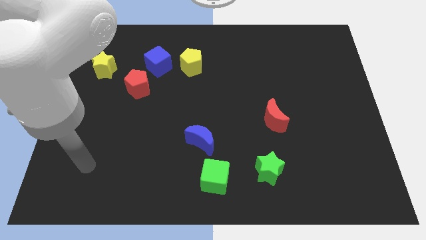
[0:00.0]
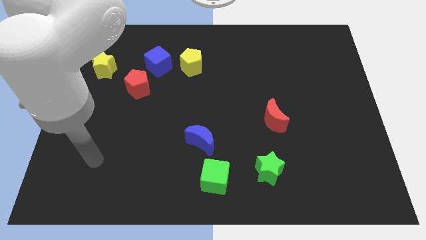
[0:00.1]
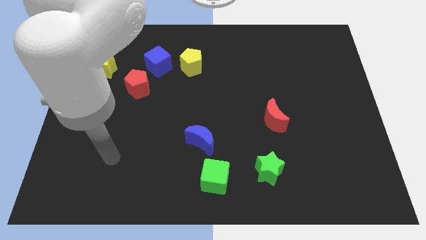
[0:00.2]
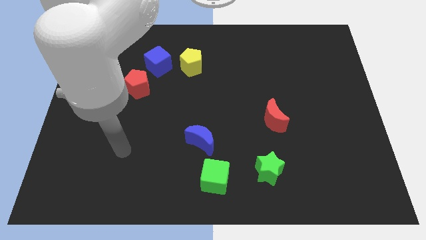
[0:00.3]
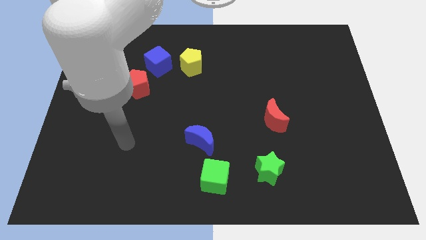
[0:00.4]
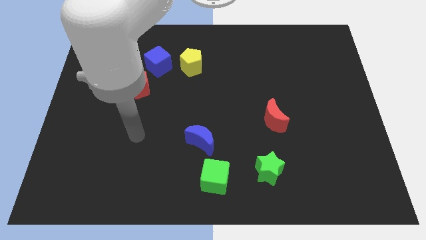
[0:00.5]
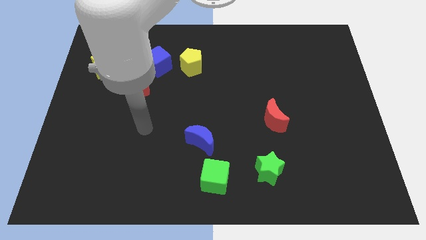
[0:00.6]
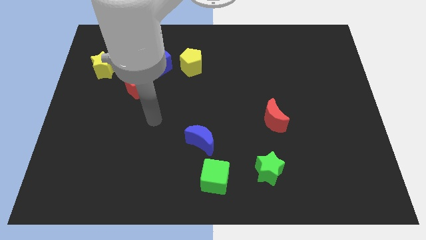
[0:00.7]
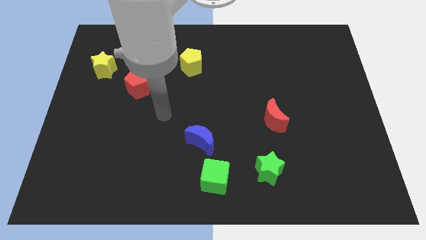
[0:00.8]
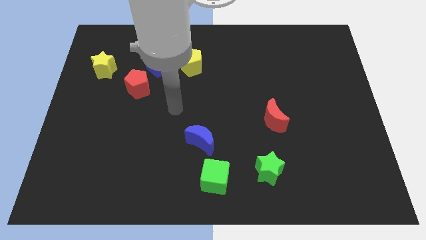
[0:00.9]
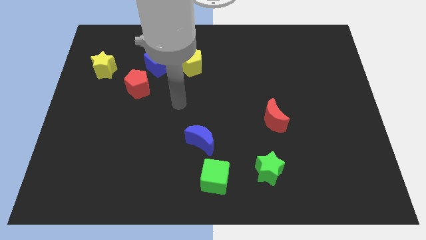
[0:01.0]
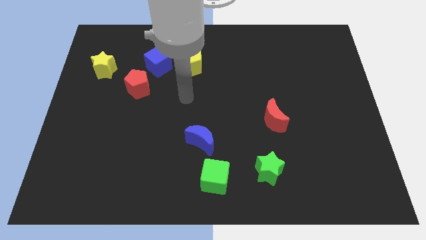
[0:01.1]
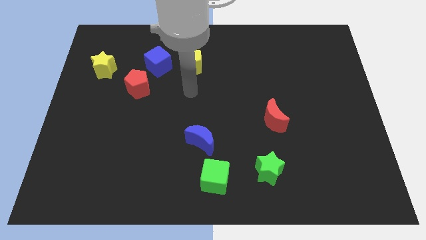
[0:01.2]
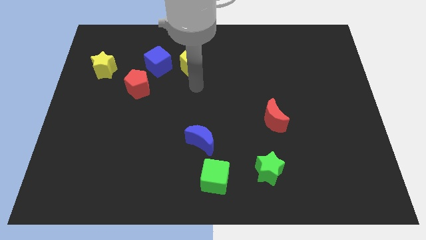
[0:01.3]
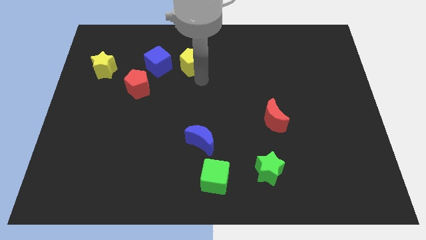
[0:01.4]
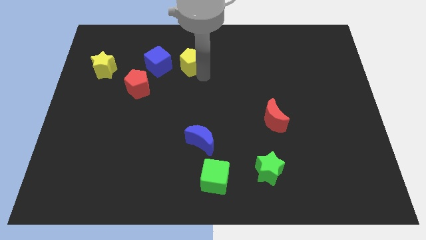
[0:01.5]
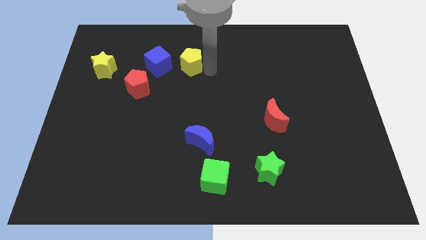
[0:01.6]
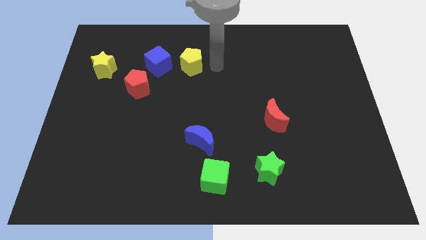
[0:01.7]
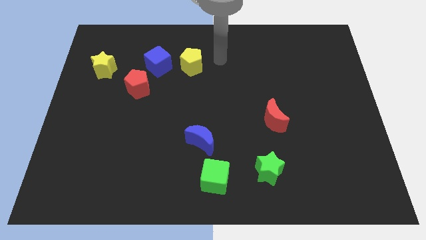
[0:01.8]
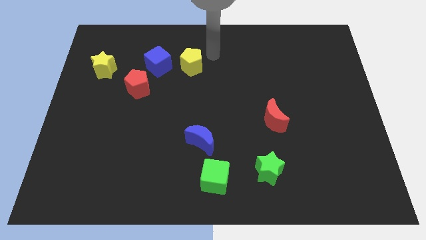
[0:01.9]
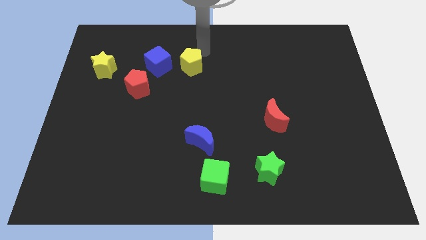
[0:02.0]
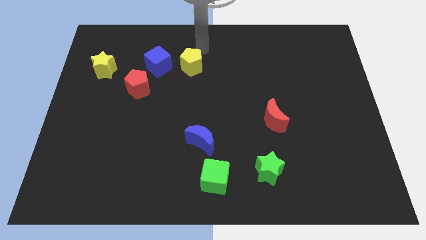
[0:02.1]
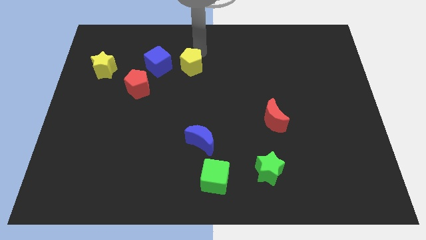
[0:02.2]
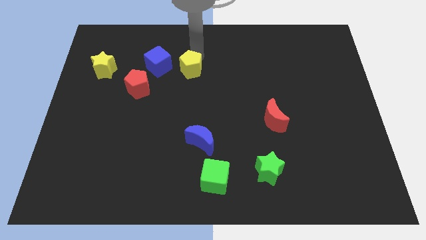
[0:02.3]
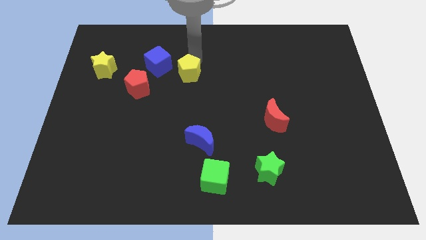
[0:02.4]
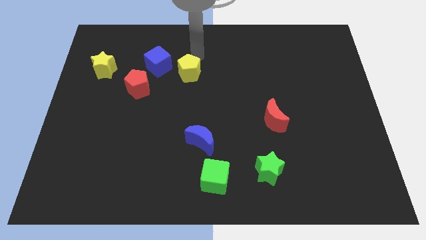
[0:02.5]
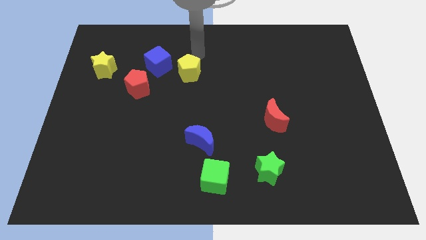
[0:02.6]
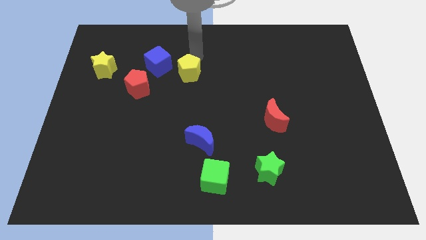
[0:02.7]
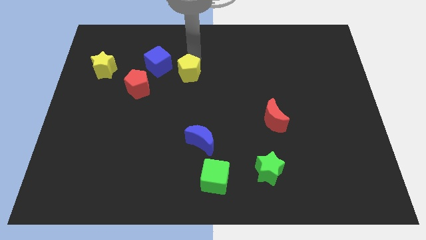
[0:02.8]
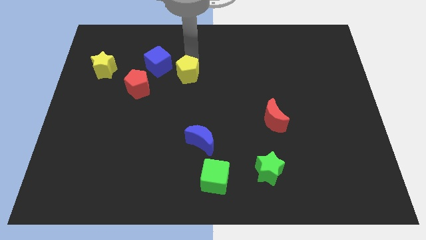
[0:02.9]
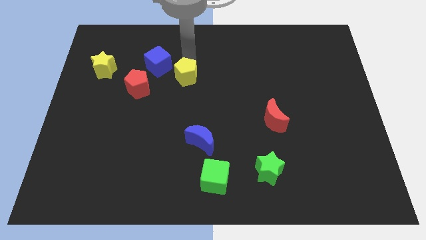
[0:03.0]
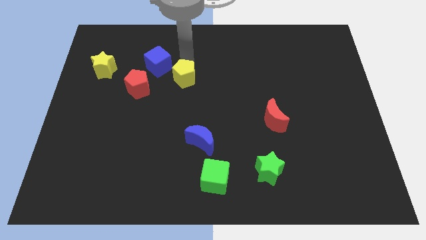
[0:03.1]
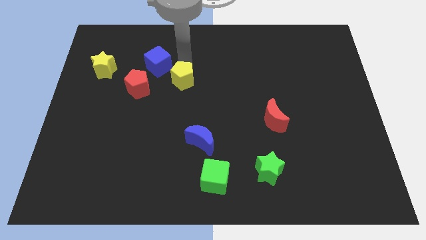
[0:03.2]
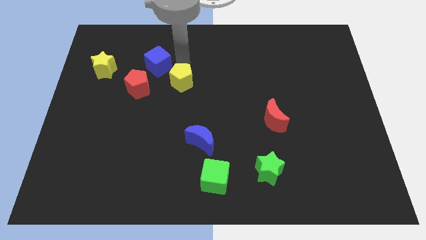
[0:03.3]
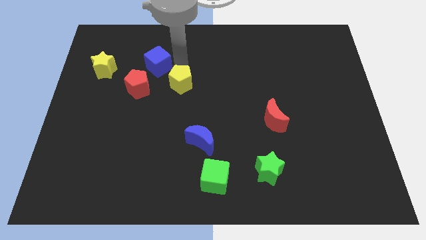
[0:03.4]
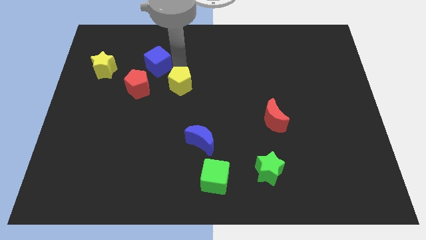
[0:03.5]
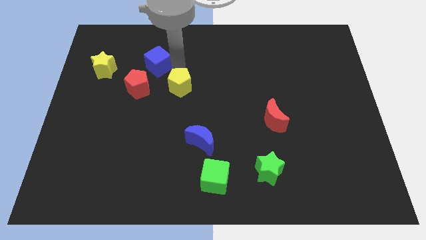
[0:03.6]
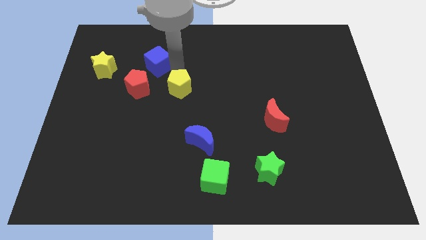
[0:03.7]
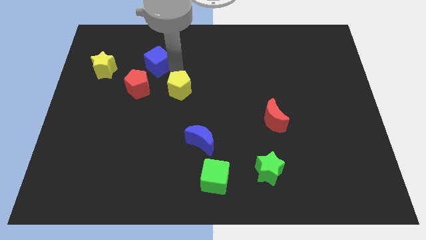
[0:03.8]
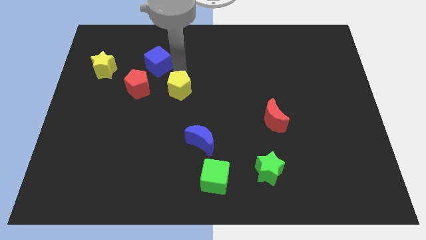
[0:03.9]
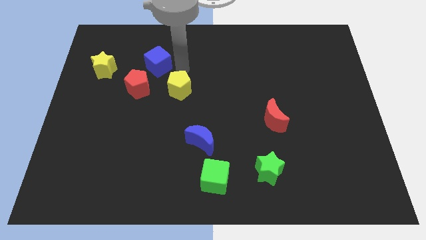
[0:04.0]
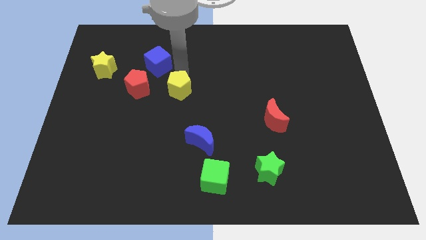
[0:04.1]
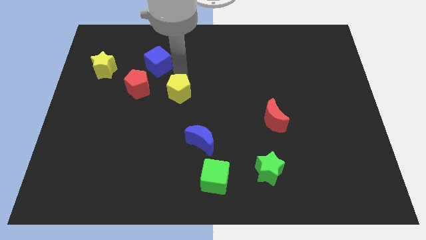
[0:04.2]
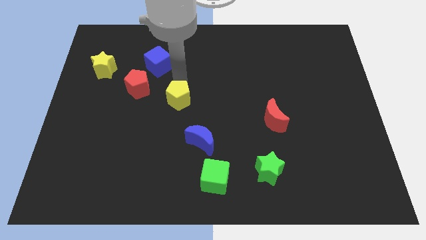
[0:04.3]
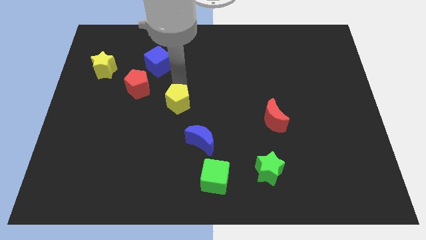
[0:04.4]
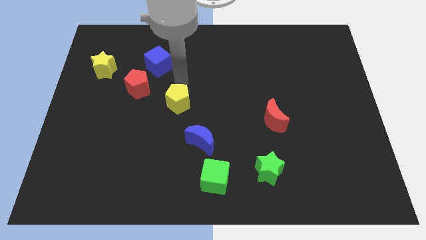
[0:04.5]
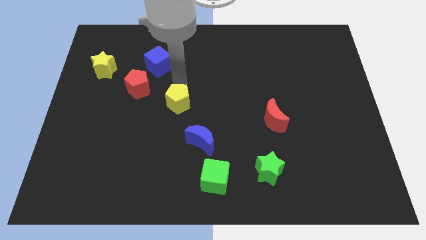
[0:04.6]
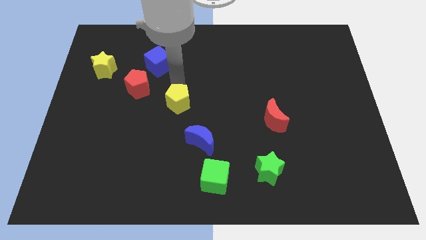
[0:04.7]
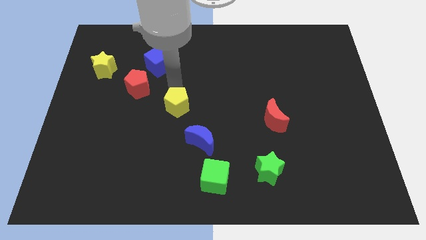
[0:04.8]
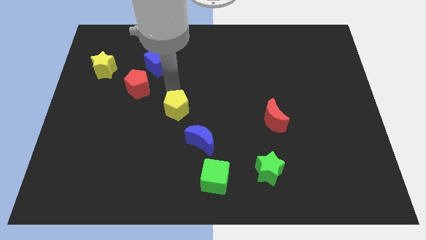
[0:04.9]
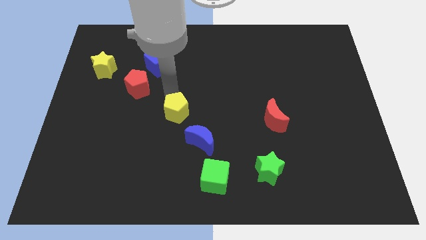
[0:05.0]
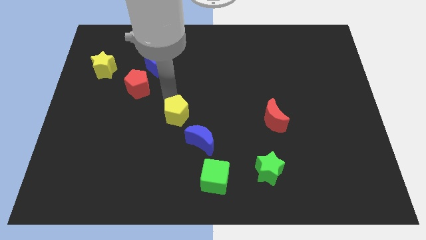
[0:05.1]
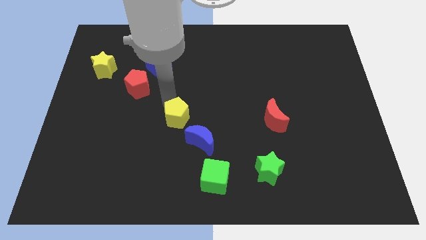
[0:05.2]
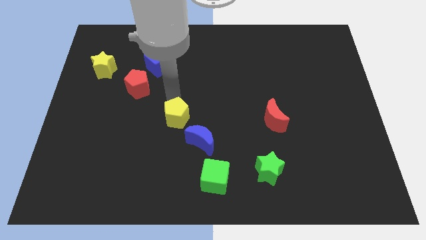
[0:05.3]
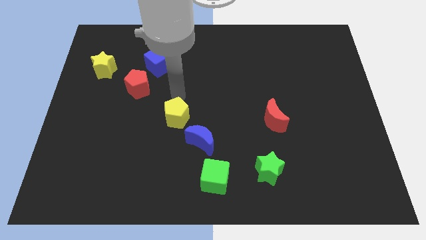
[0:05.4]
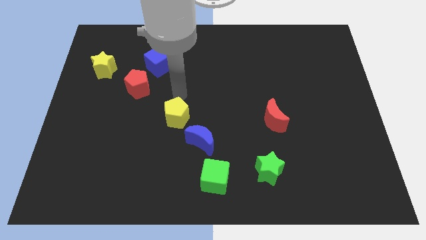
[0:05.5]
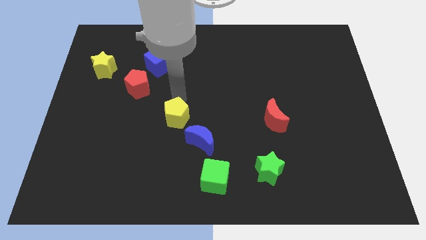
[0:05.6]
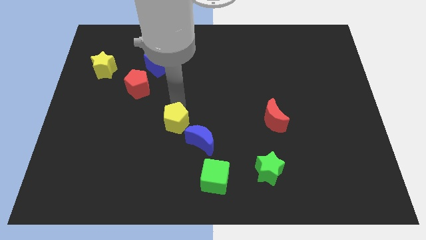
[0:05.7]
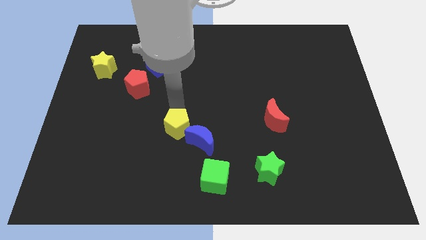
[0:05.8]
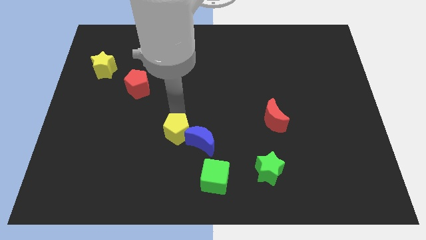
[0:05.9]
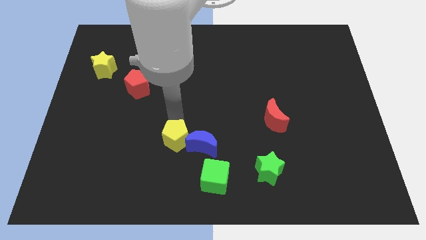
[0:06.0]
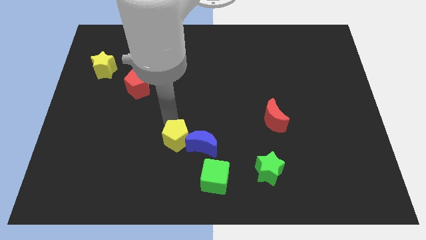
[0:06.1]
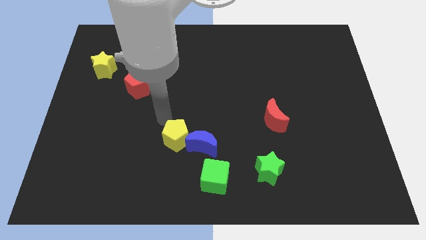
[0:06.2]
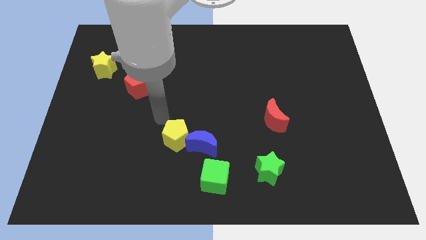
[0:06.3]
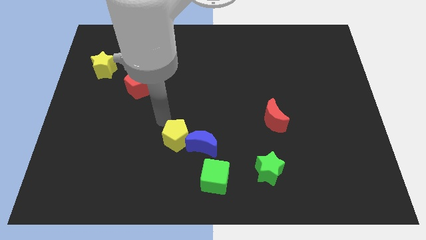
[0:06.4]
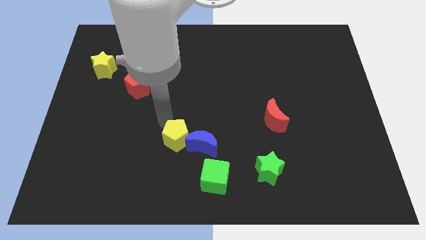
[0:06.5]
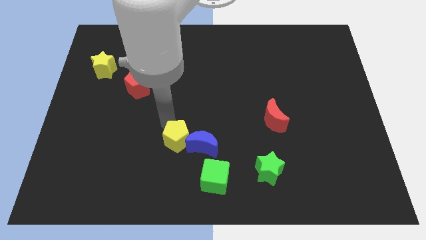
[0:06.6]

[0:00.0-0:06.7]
slide the yellow pentagon to the top left side of the green cube
